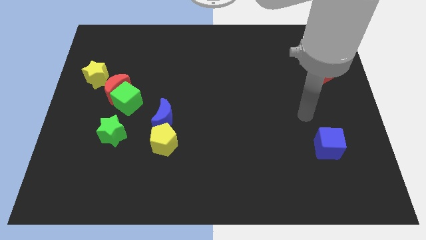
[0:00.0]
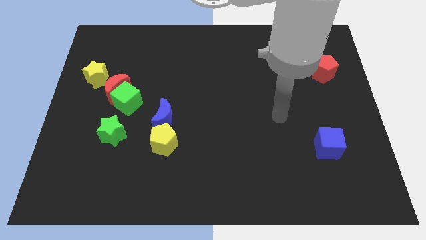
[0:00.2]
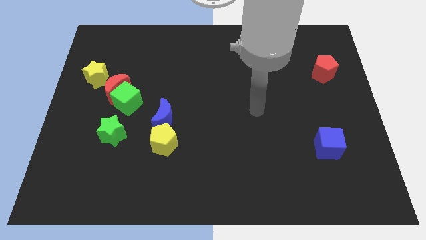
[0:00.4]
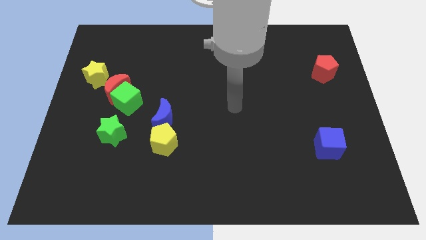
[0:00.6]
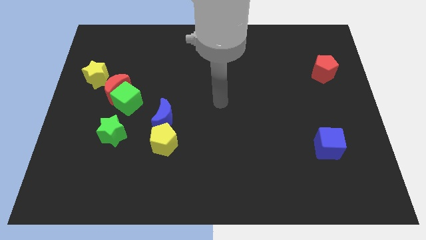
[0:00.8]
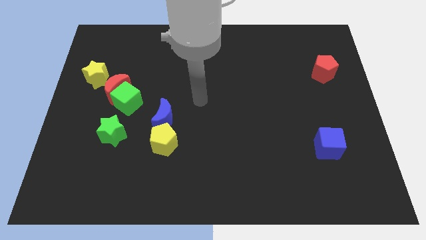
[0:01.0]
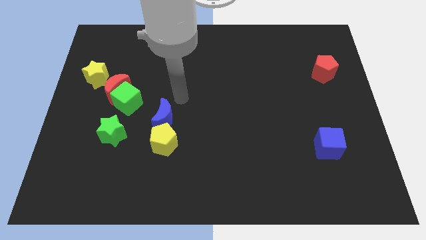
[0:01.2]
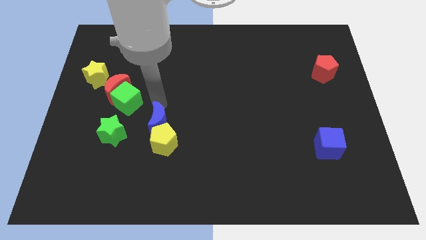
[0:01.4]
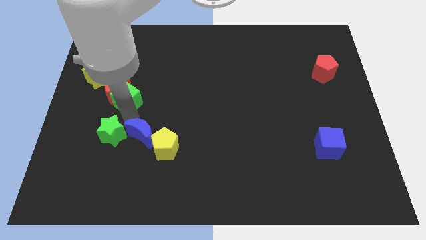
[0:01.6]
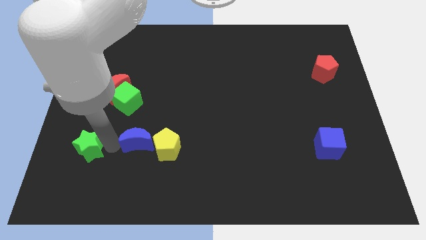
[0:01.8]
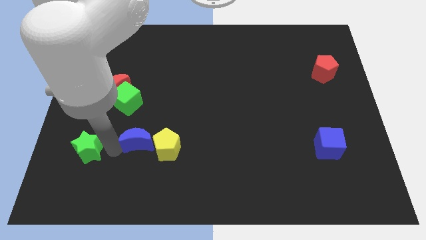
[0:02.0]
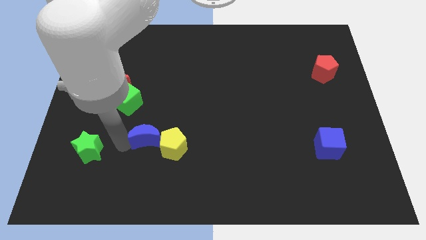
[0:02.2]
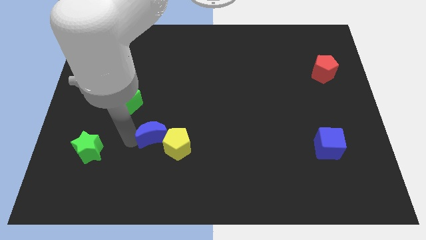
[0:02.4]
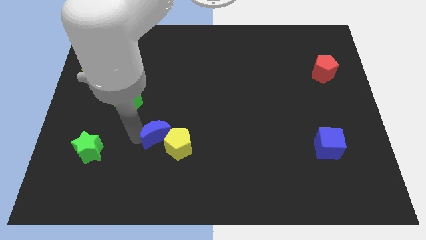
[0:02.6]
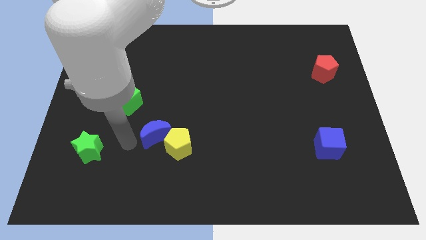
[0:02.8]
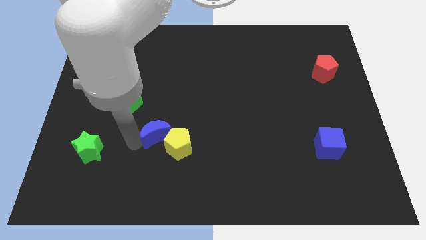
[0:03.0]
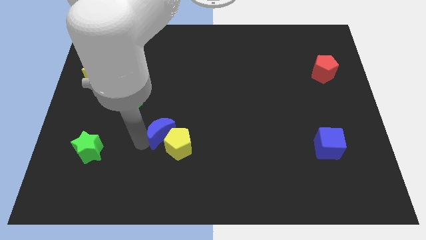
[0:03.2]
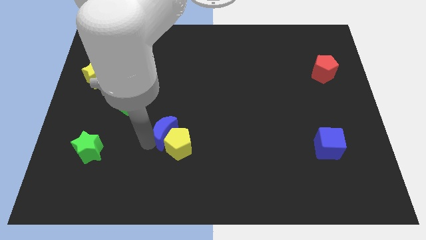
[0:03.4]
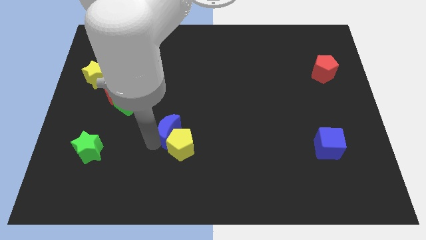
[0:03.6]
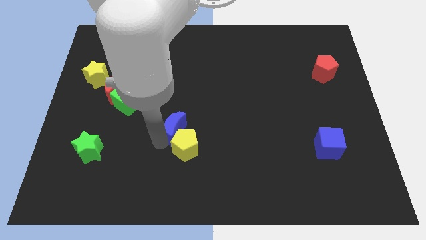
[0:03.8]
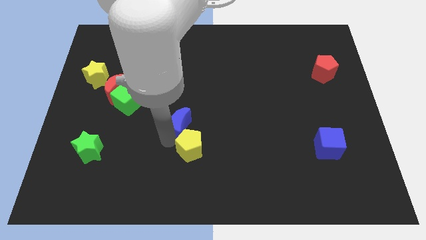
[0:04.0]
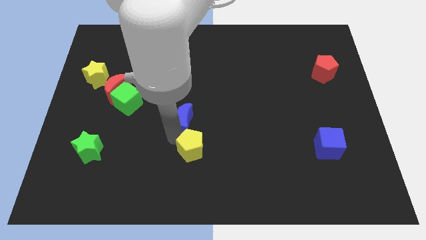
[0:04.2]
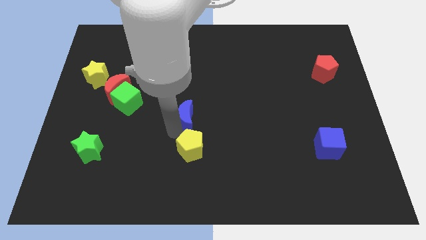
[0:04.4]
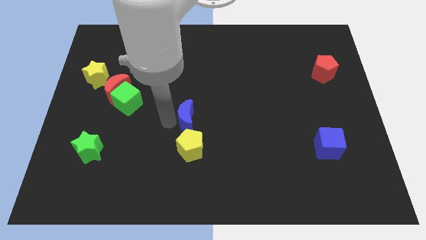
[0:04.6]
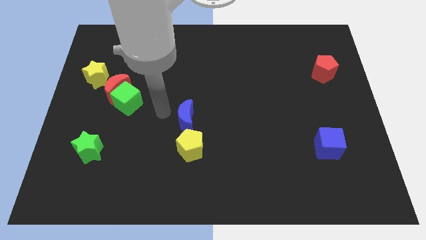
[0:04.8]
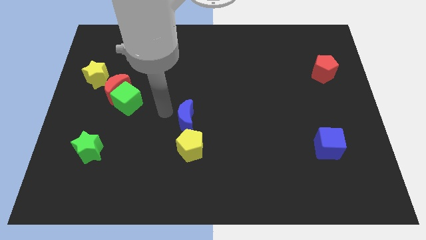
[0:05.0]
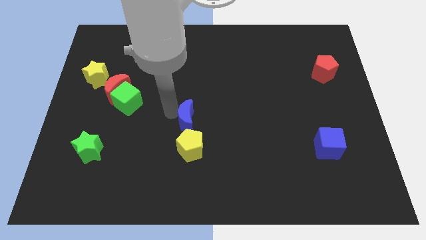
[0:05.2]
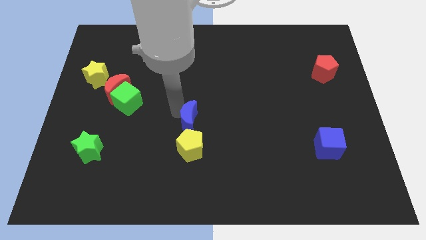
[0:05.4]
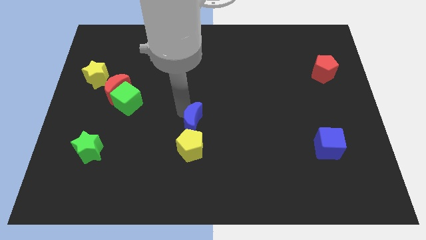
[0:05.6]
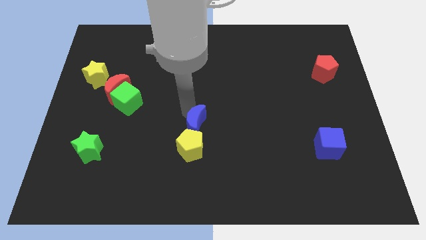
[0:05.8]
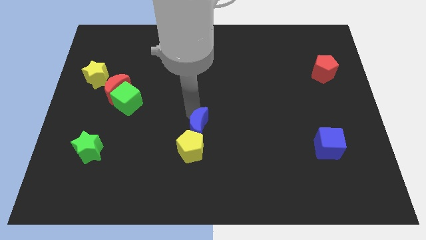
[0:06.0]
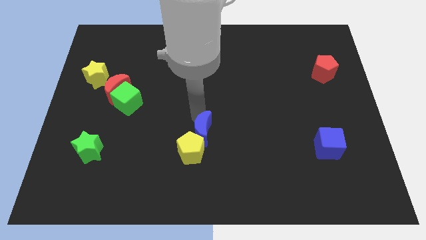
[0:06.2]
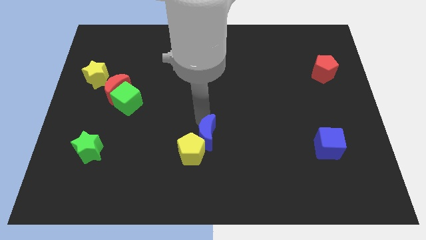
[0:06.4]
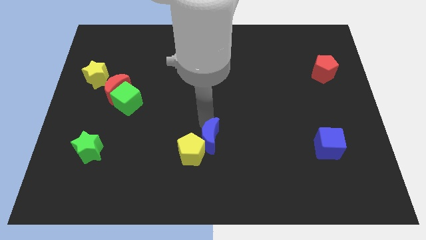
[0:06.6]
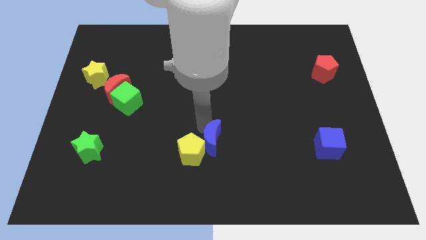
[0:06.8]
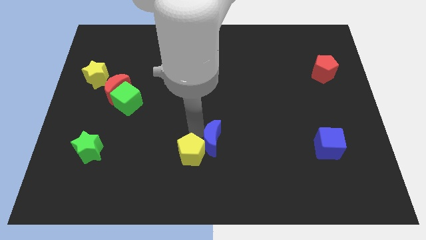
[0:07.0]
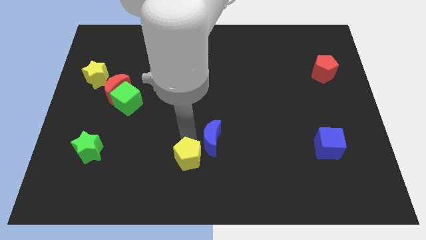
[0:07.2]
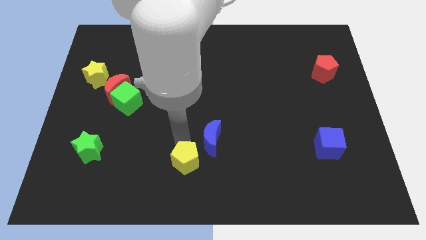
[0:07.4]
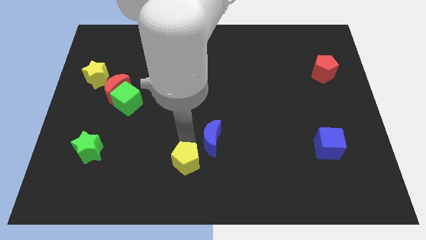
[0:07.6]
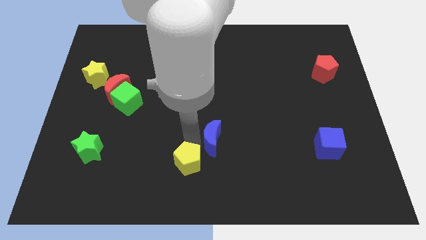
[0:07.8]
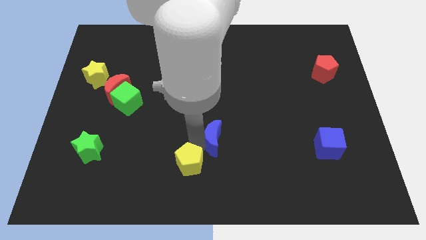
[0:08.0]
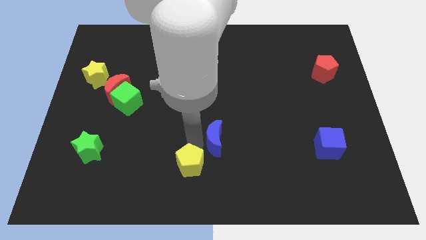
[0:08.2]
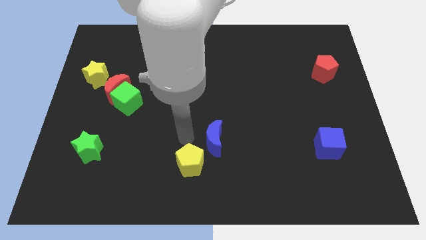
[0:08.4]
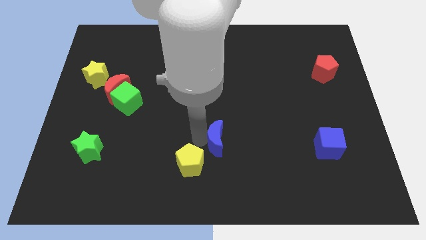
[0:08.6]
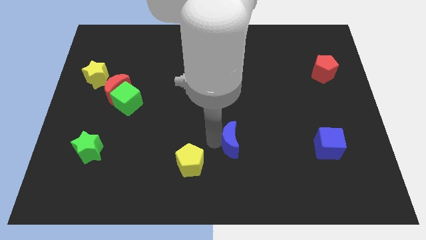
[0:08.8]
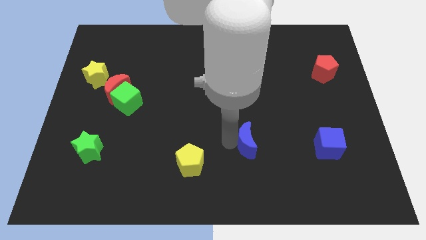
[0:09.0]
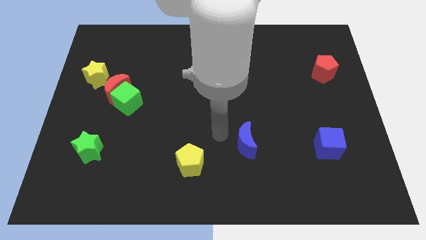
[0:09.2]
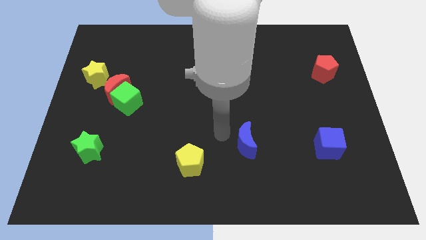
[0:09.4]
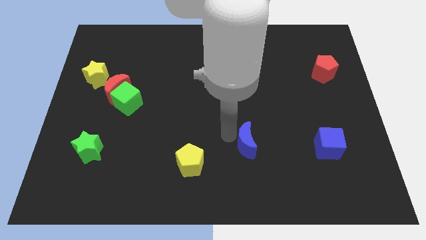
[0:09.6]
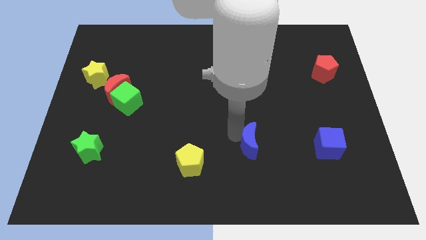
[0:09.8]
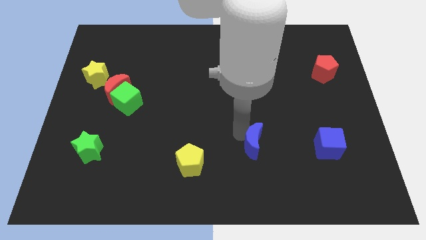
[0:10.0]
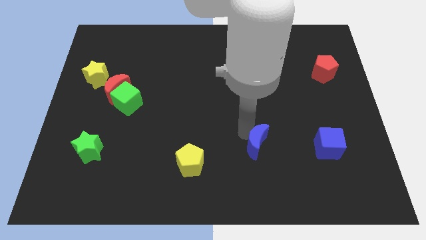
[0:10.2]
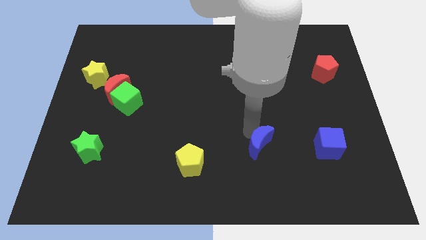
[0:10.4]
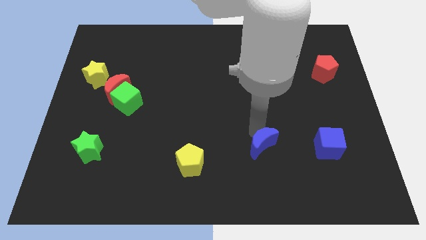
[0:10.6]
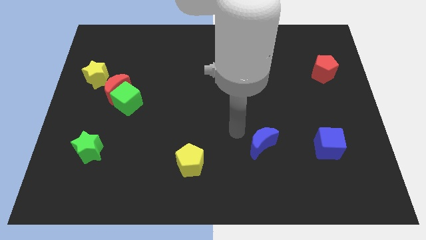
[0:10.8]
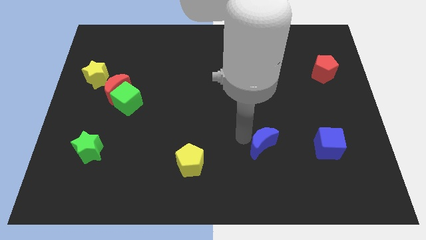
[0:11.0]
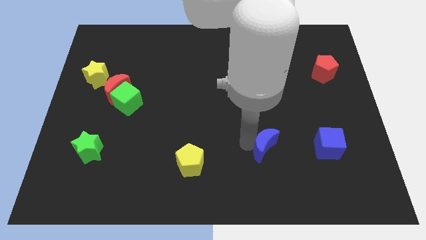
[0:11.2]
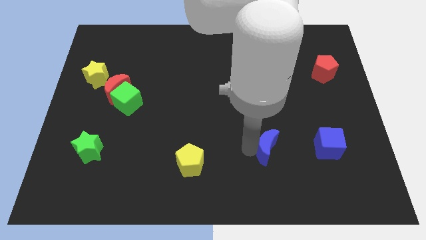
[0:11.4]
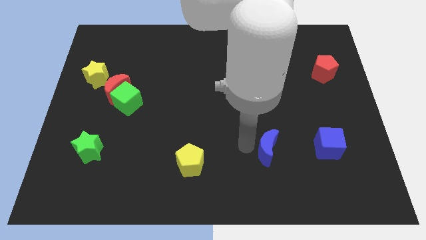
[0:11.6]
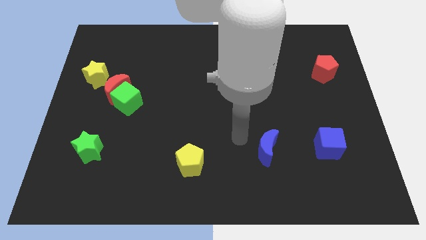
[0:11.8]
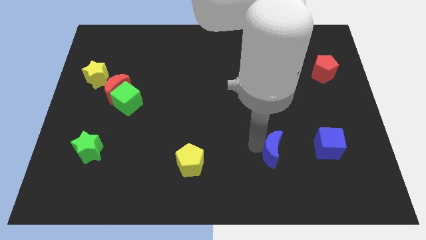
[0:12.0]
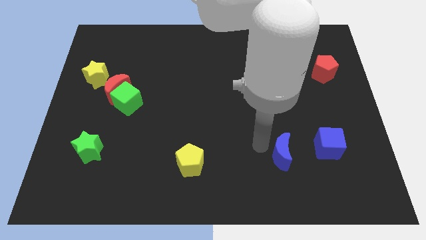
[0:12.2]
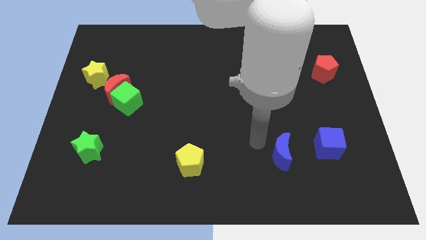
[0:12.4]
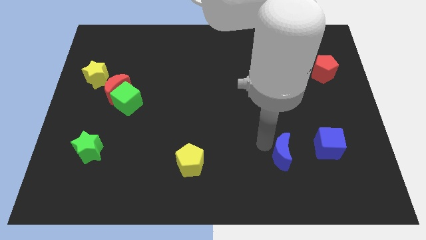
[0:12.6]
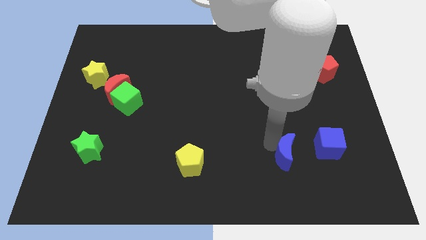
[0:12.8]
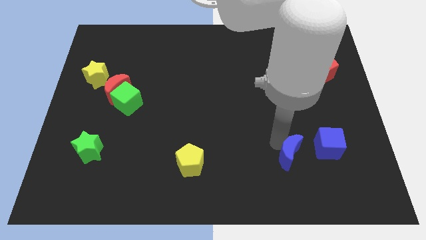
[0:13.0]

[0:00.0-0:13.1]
move the blue moon to the bottom left of the blue cube
